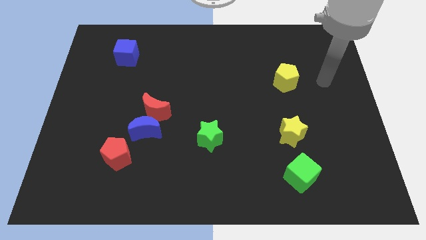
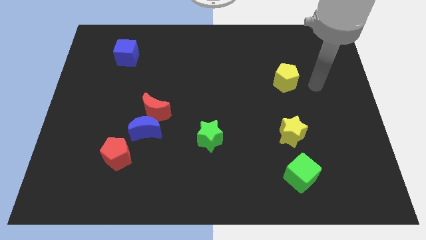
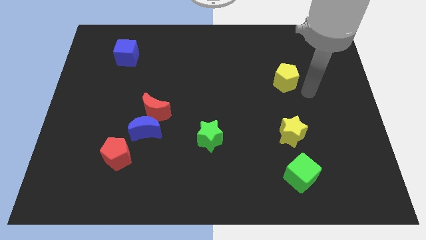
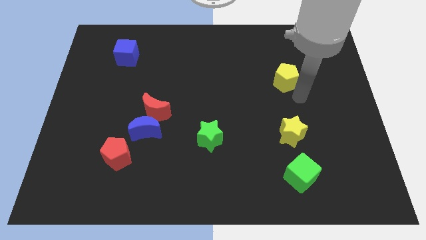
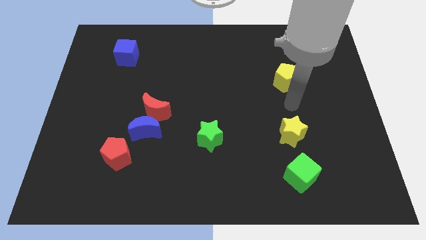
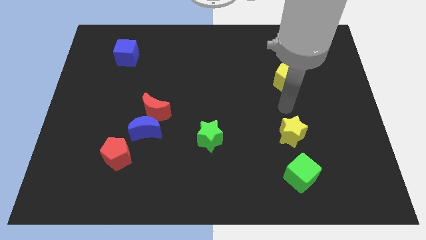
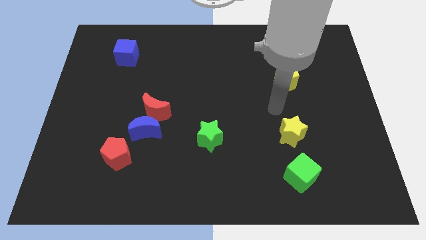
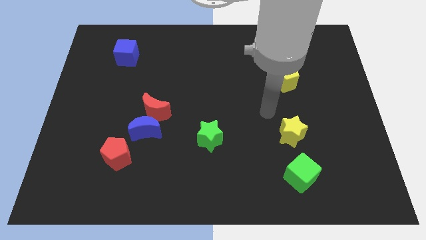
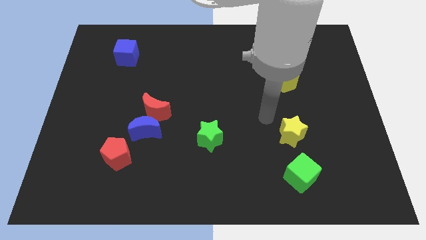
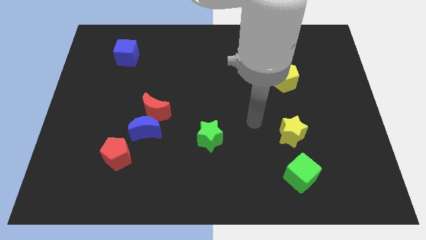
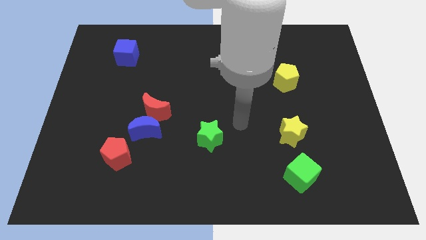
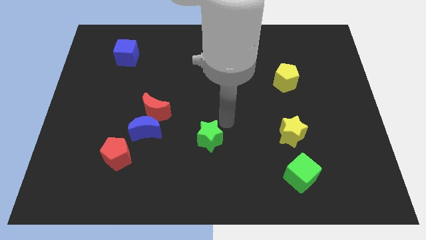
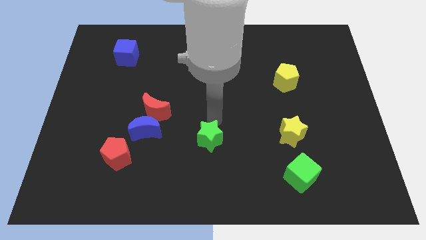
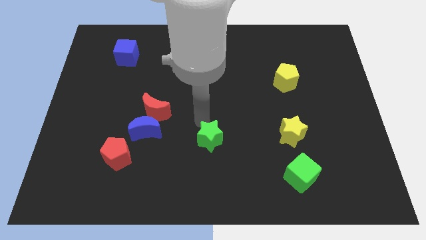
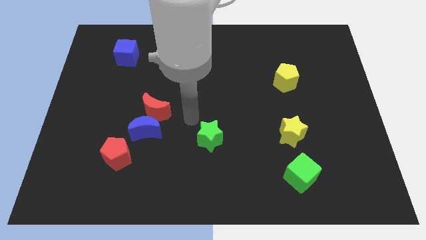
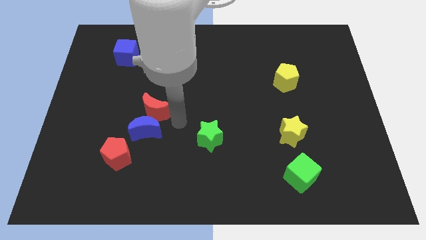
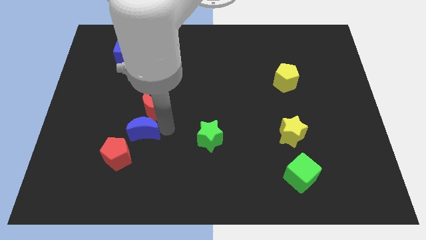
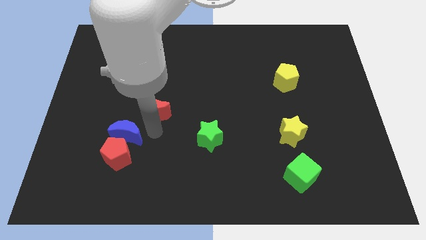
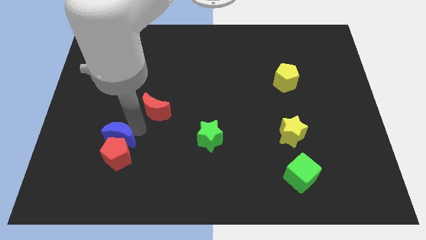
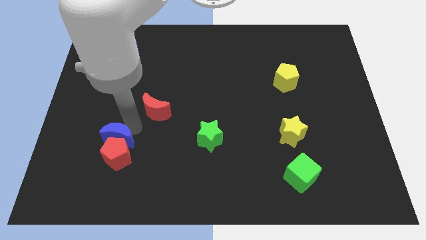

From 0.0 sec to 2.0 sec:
pull the red moon apart from the blue moon

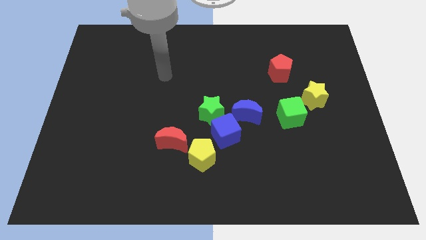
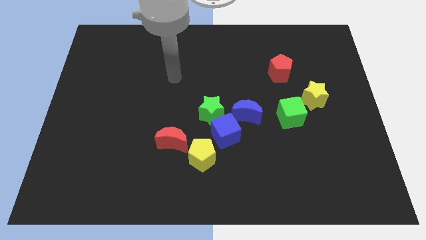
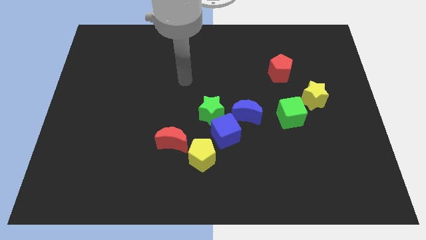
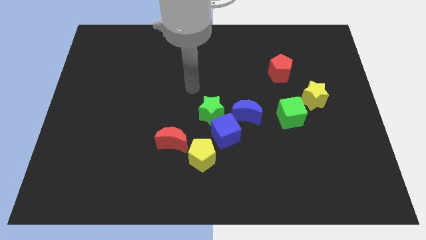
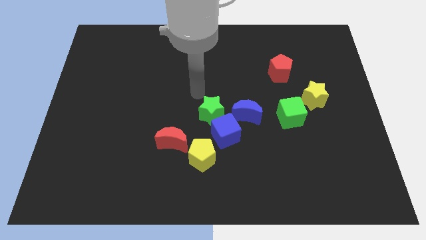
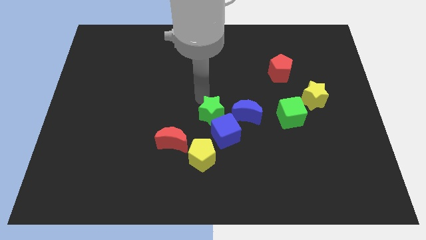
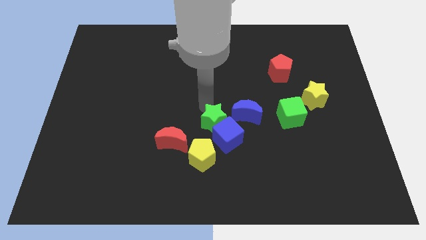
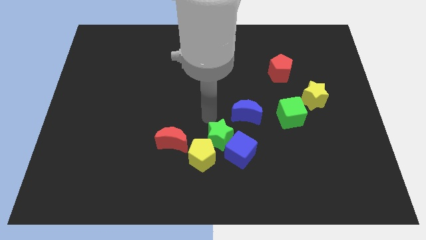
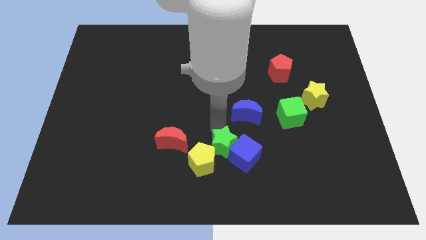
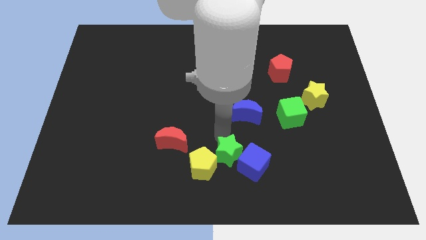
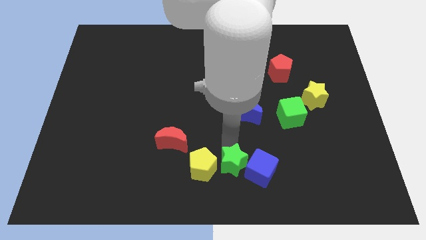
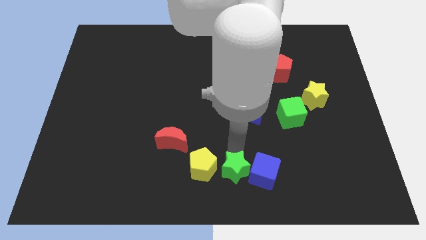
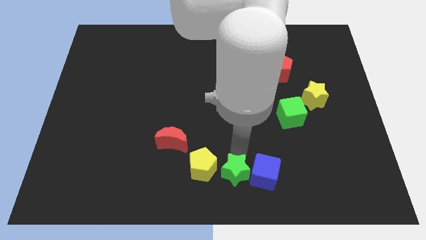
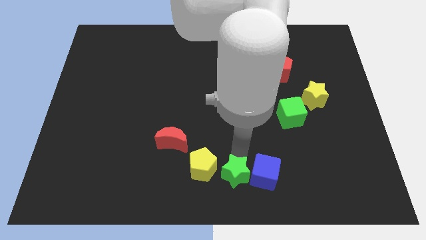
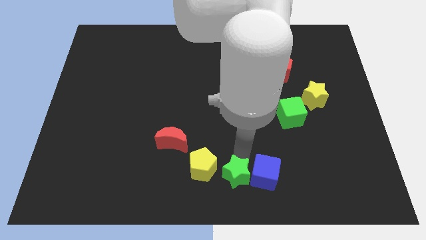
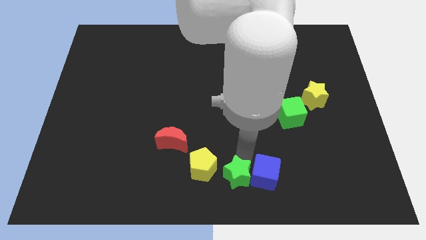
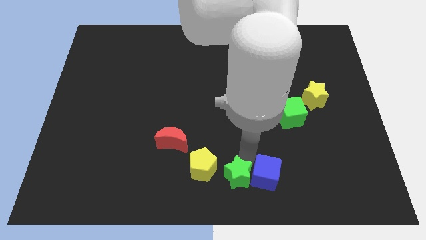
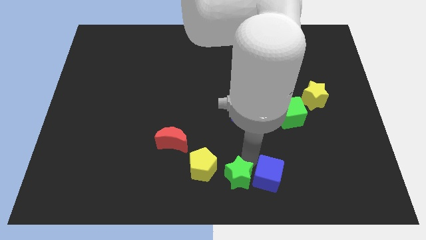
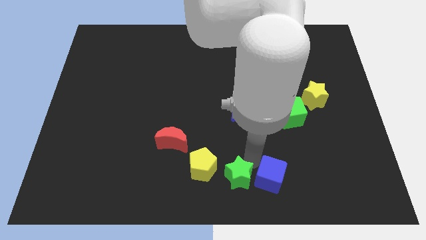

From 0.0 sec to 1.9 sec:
separate the blue cube from the clump

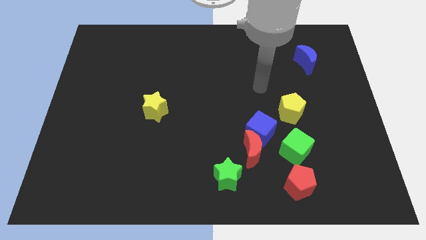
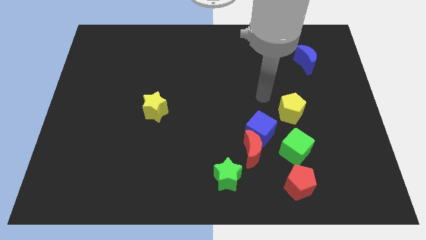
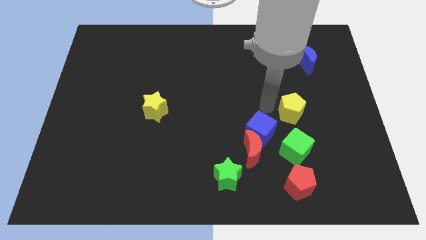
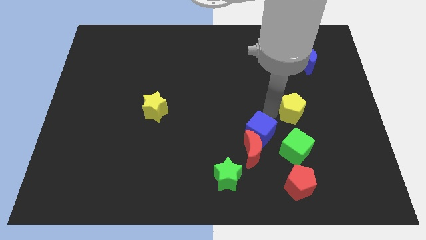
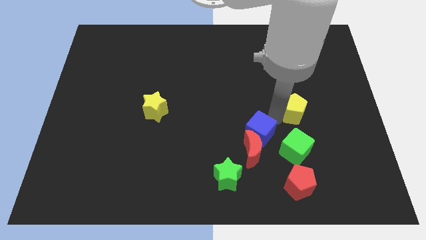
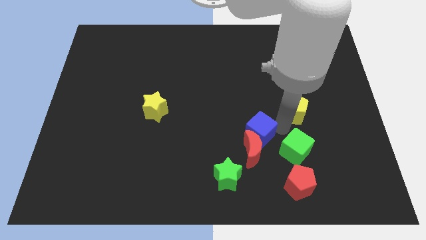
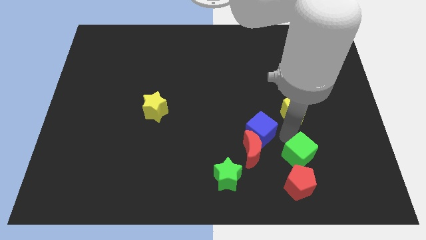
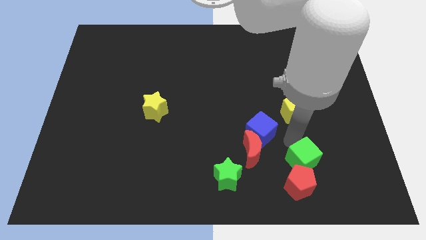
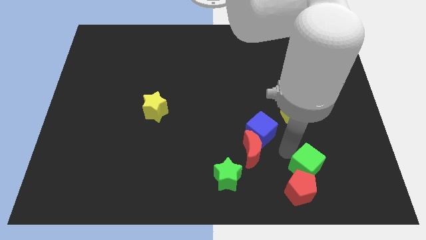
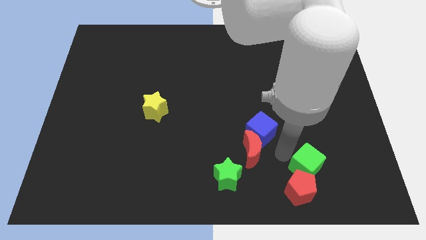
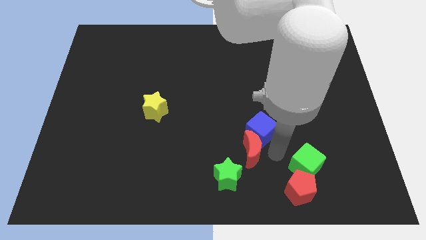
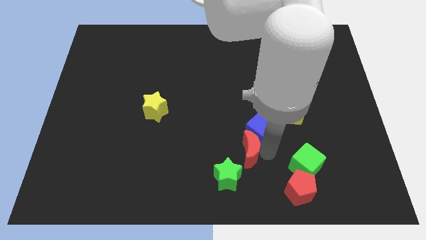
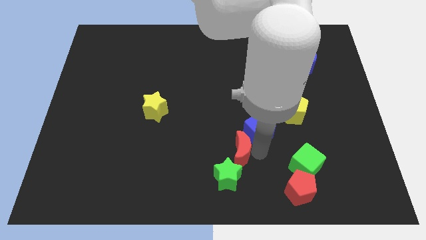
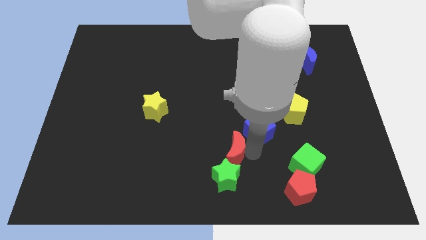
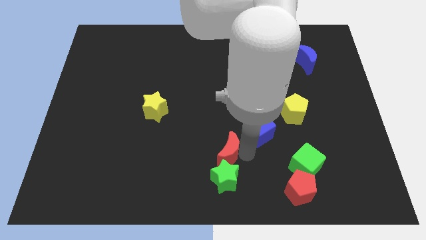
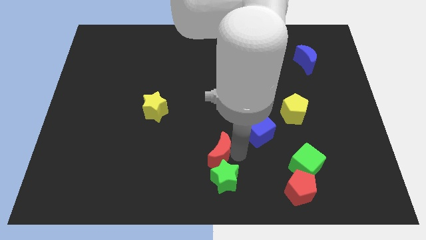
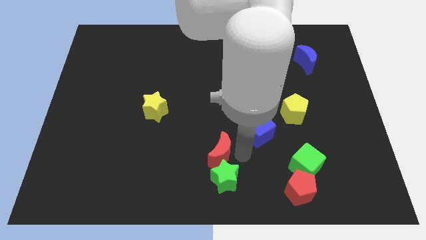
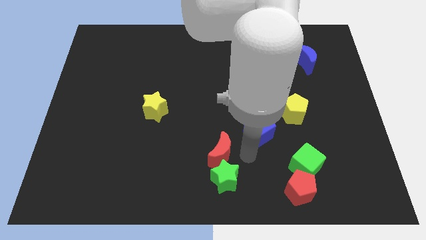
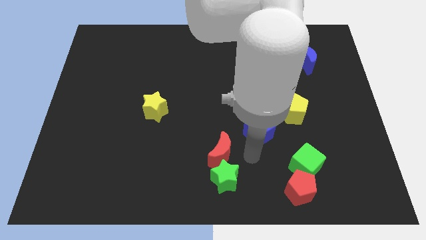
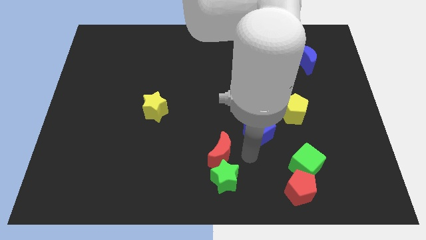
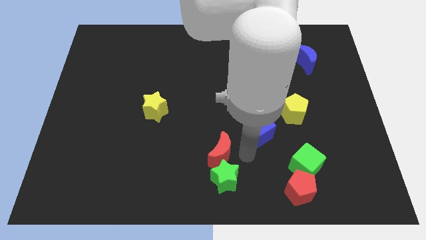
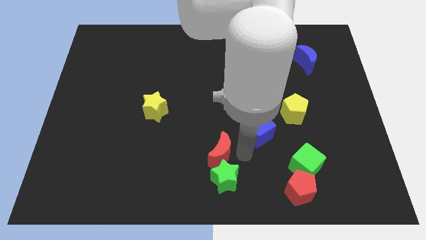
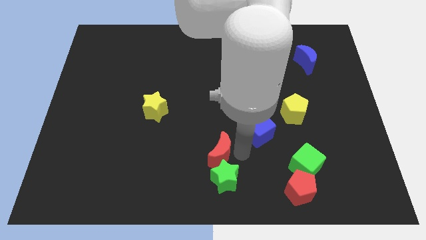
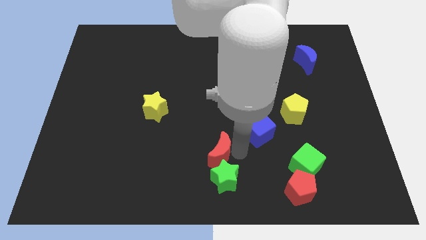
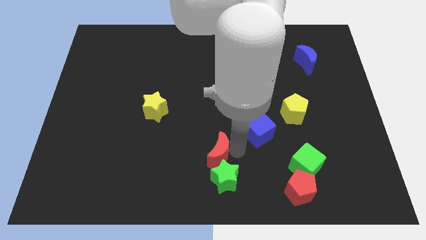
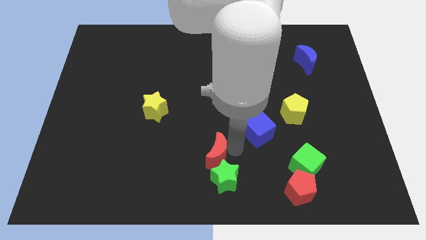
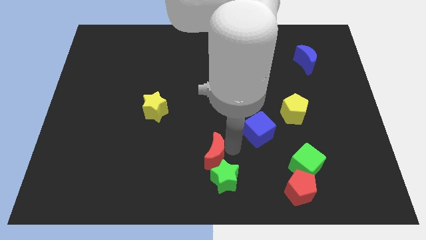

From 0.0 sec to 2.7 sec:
separate the red moon from the blue cube, green star, and green cube

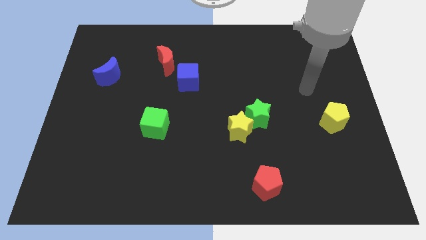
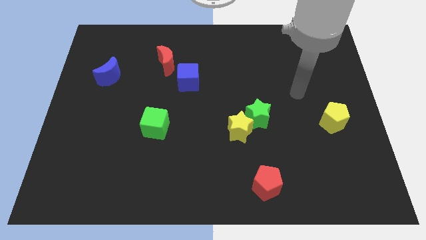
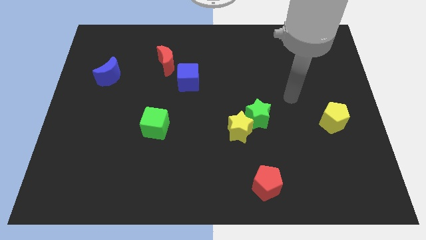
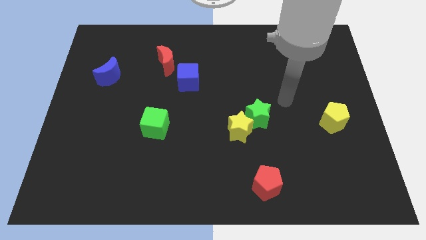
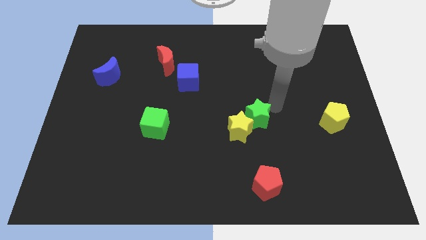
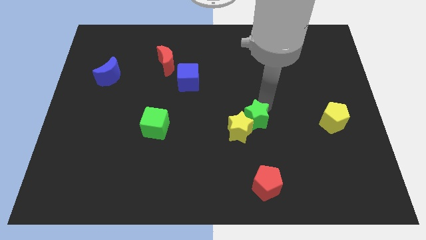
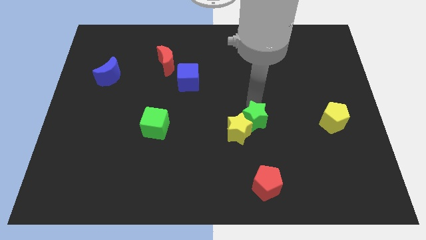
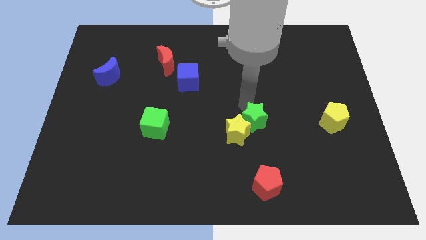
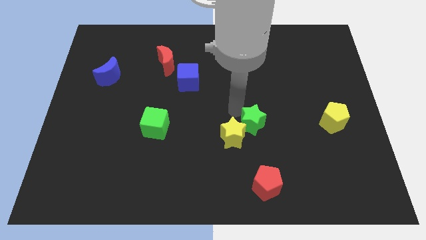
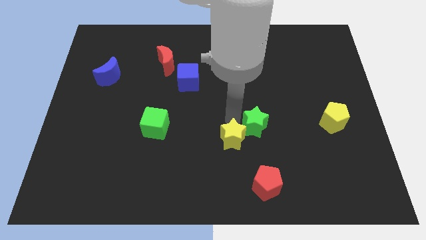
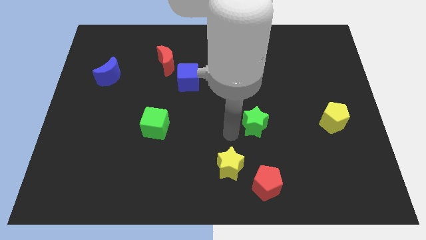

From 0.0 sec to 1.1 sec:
separate the green star from the yellow star

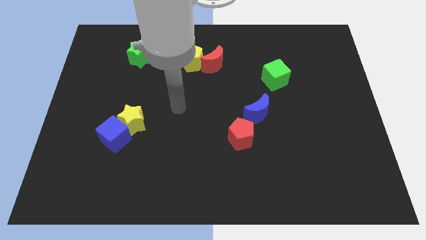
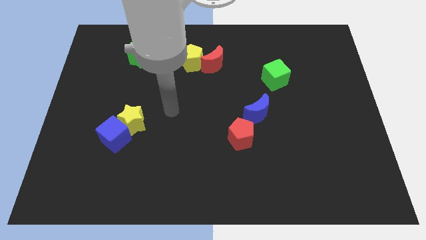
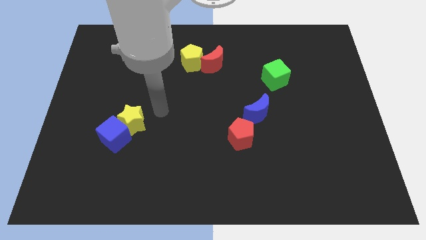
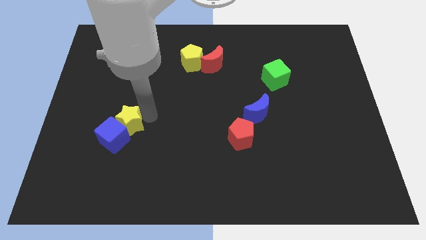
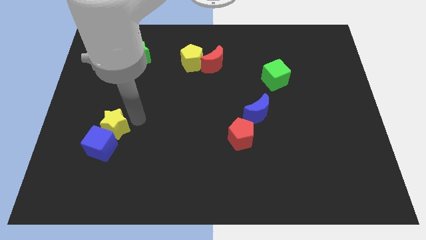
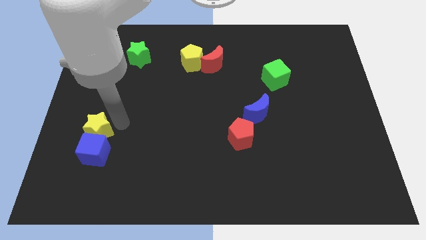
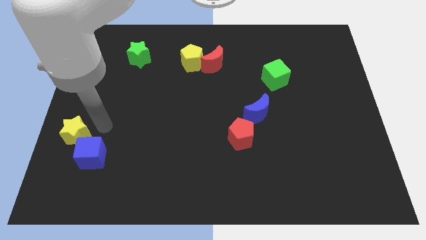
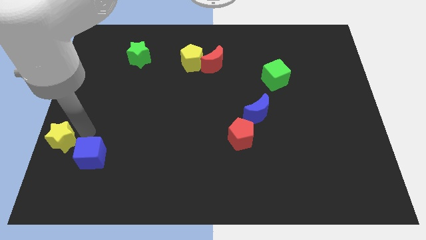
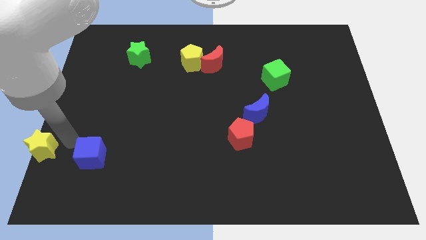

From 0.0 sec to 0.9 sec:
pull the blue cube apart from the yellow star

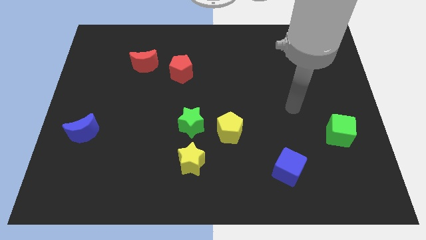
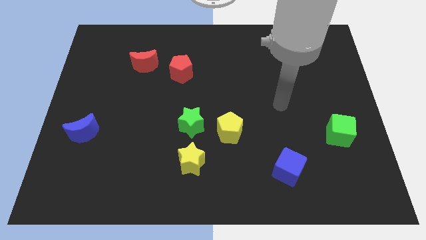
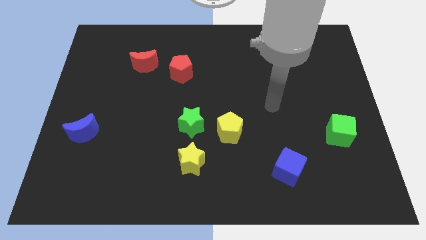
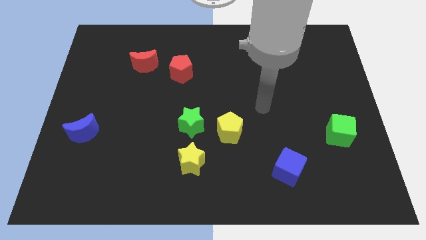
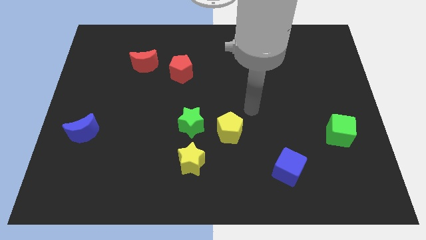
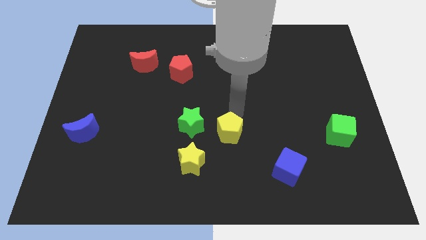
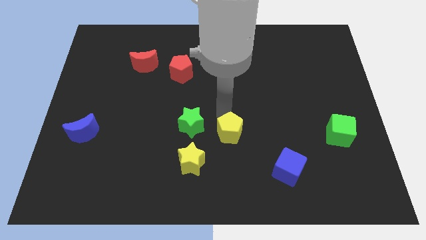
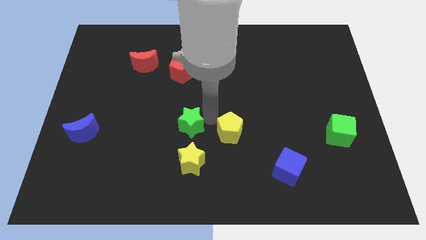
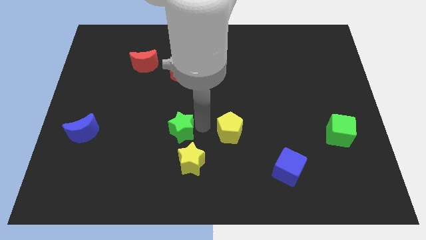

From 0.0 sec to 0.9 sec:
separate the yellow pentagon from the green star
